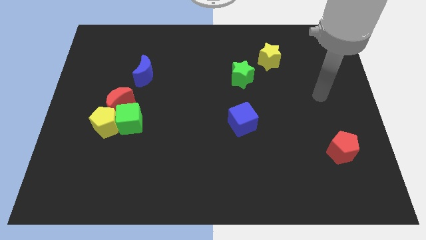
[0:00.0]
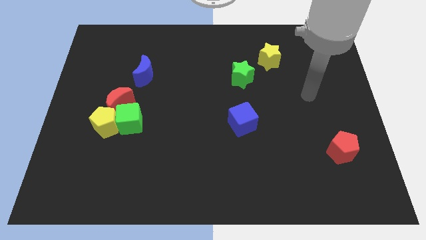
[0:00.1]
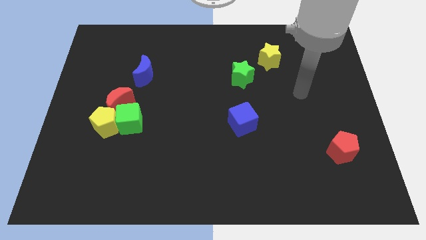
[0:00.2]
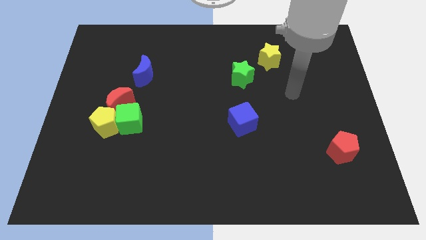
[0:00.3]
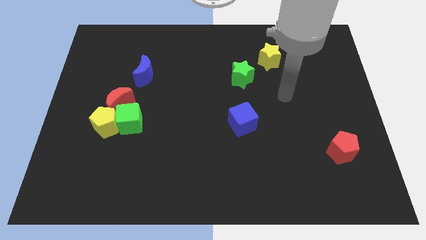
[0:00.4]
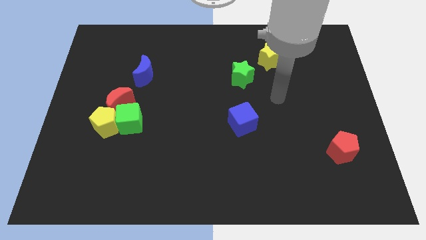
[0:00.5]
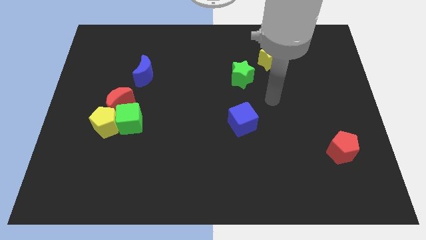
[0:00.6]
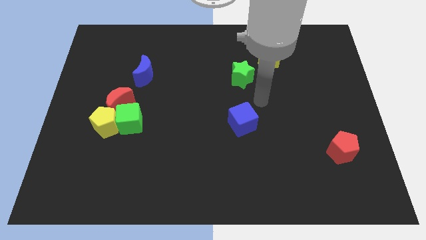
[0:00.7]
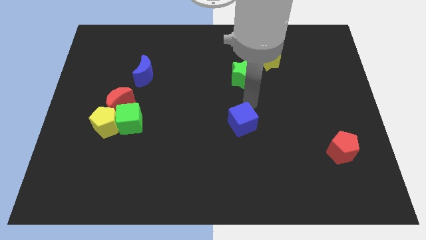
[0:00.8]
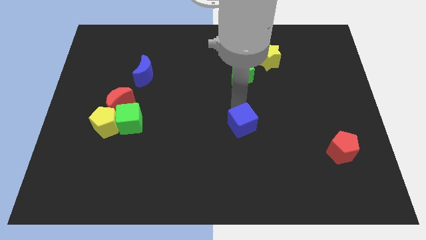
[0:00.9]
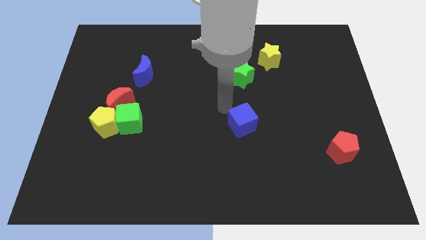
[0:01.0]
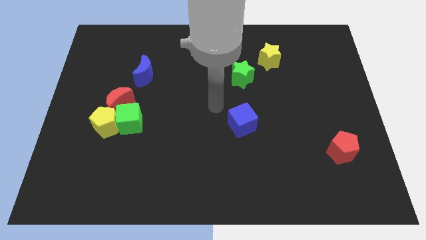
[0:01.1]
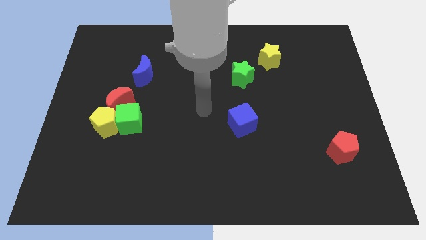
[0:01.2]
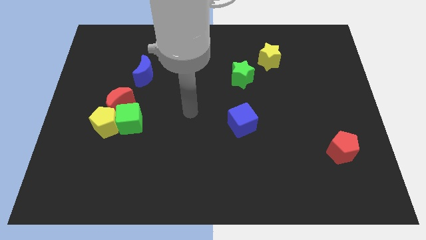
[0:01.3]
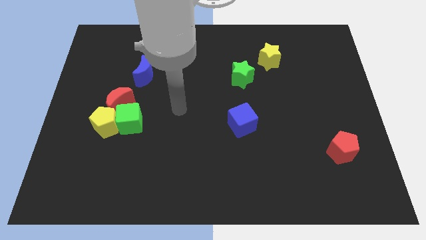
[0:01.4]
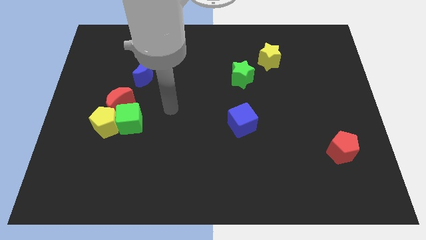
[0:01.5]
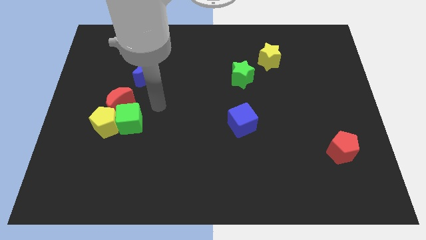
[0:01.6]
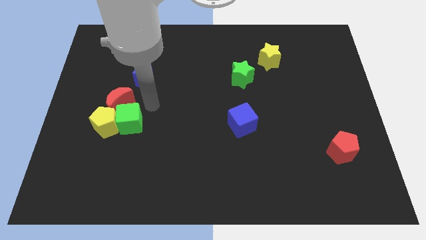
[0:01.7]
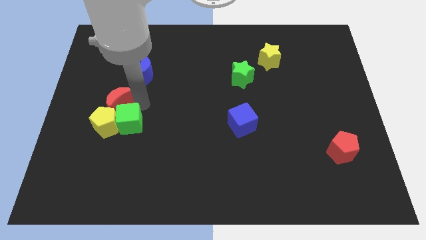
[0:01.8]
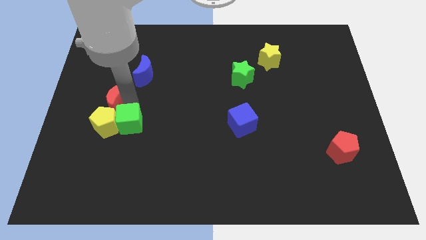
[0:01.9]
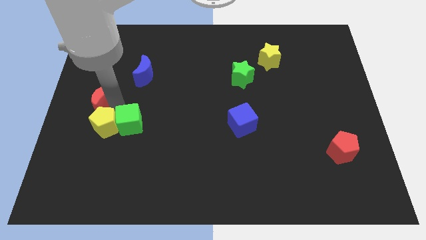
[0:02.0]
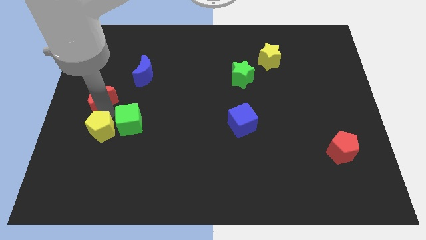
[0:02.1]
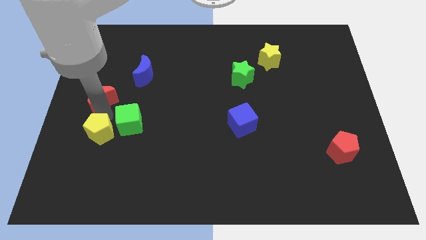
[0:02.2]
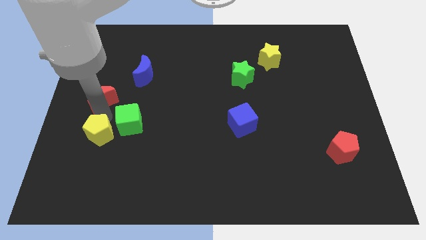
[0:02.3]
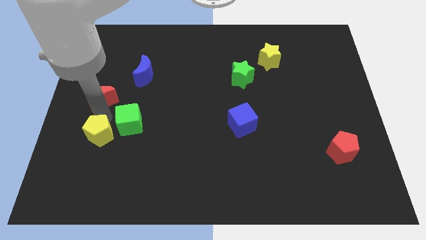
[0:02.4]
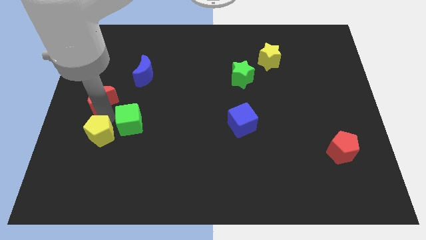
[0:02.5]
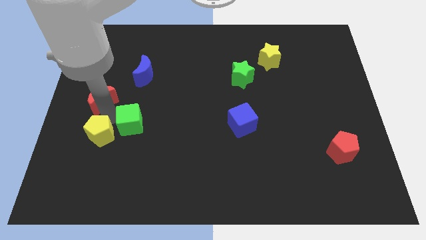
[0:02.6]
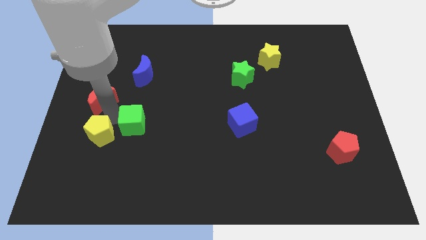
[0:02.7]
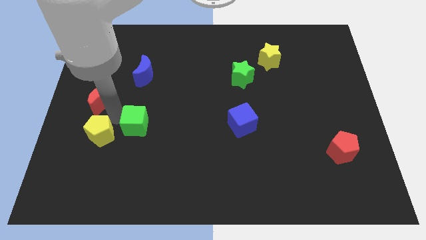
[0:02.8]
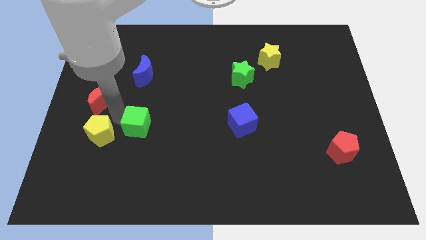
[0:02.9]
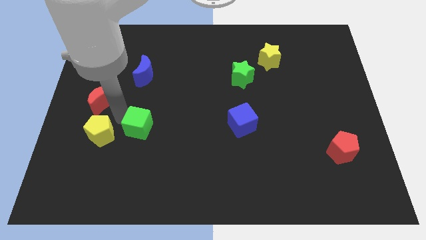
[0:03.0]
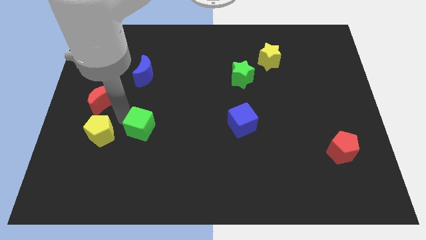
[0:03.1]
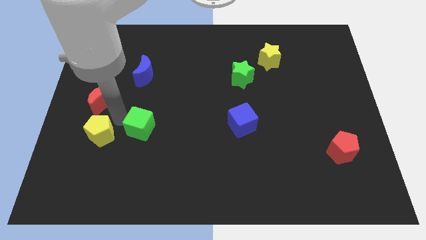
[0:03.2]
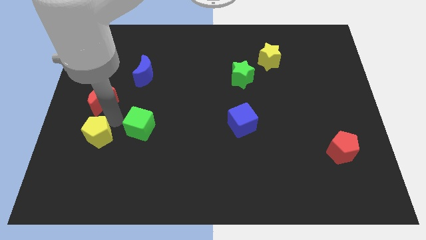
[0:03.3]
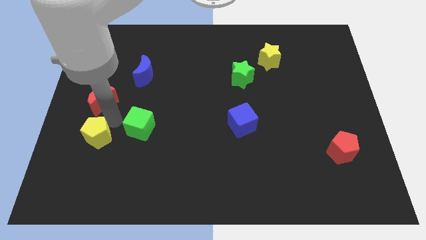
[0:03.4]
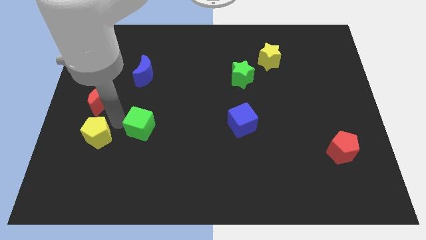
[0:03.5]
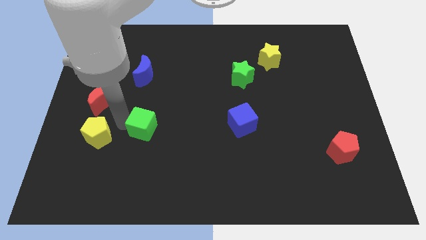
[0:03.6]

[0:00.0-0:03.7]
pull the green cube apart from the yellow pentagon and red moon

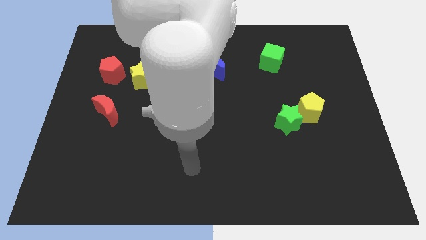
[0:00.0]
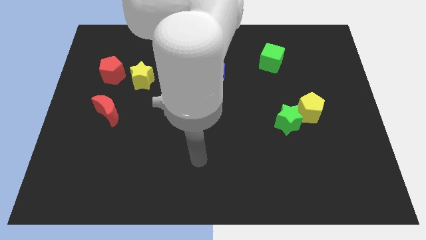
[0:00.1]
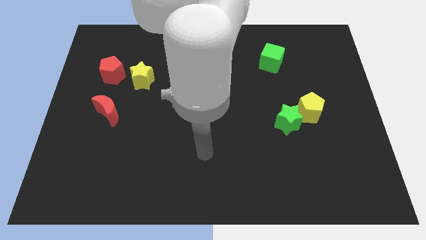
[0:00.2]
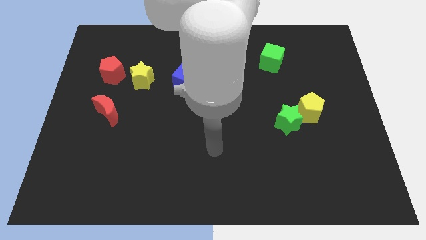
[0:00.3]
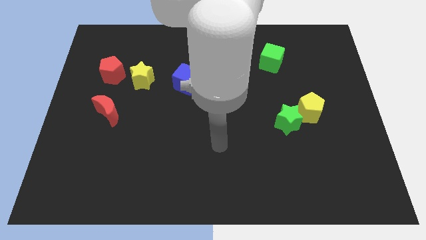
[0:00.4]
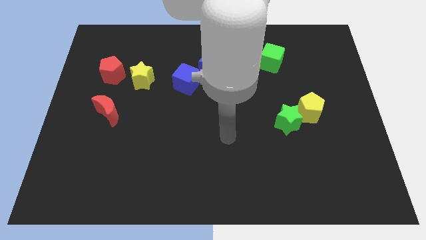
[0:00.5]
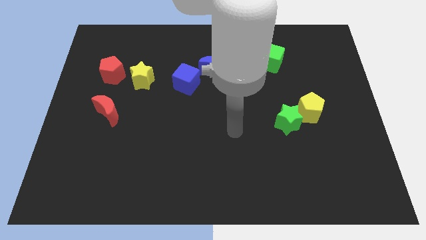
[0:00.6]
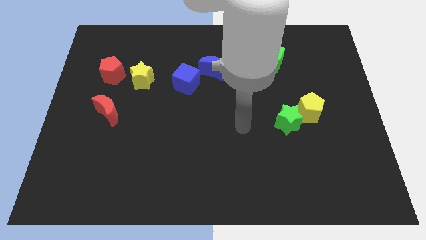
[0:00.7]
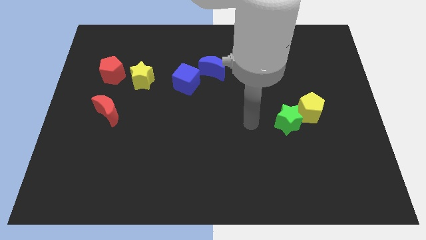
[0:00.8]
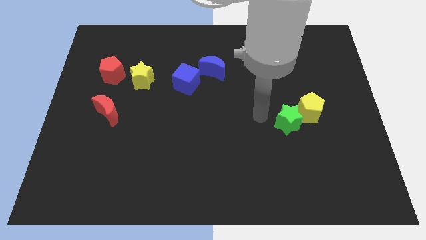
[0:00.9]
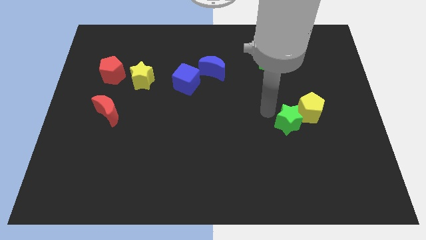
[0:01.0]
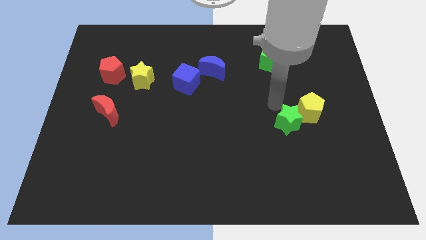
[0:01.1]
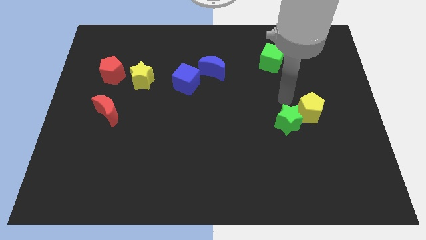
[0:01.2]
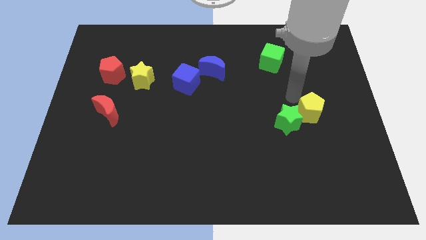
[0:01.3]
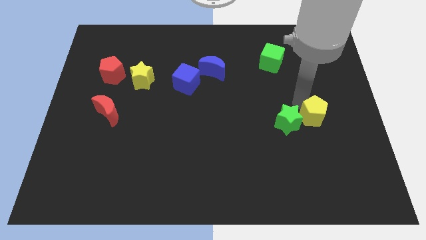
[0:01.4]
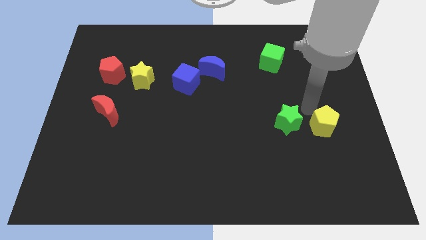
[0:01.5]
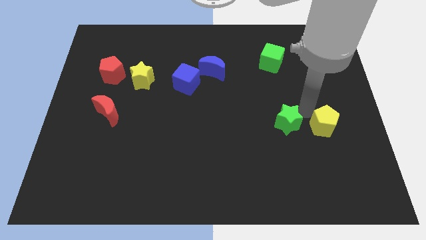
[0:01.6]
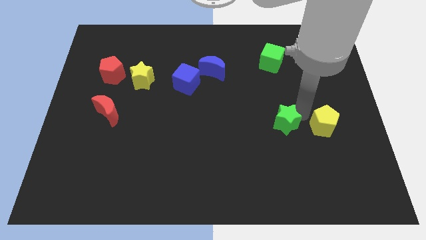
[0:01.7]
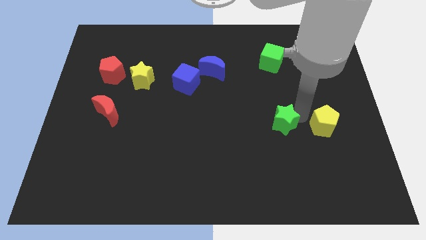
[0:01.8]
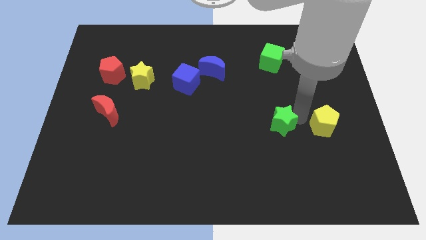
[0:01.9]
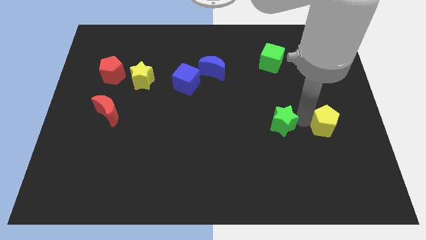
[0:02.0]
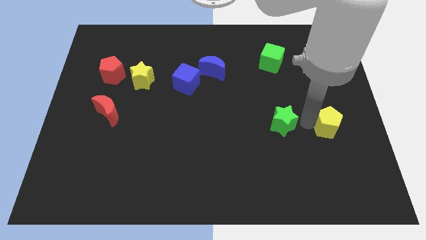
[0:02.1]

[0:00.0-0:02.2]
separate the green star from the yellow pentagon

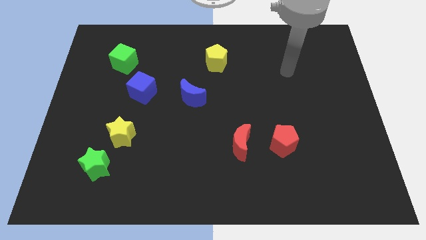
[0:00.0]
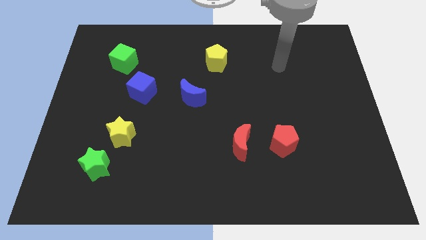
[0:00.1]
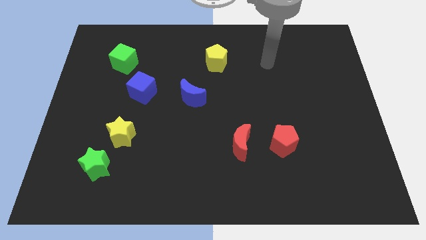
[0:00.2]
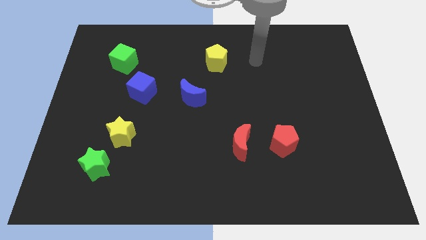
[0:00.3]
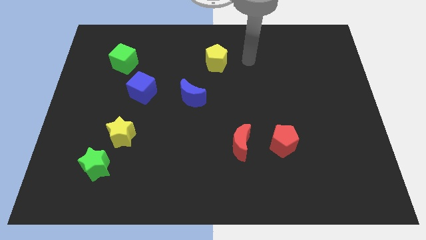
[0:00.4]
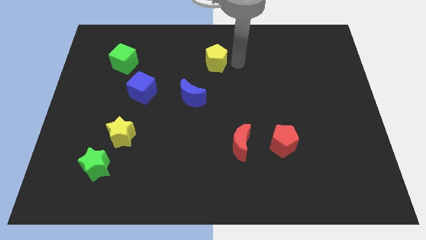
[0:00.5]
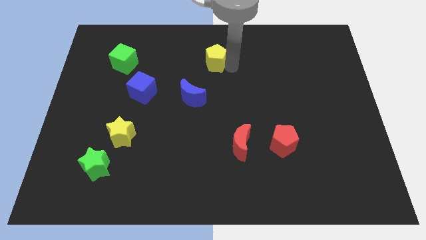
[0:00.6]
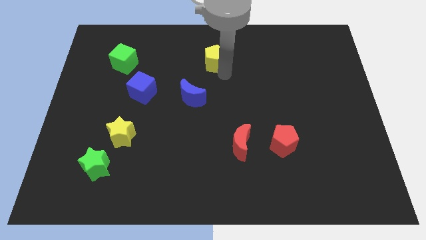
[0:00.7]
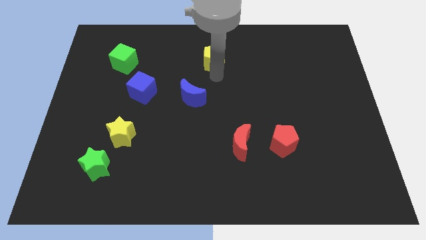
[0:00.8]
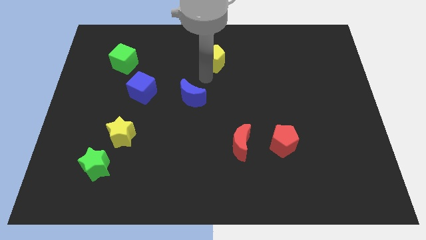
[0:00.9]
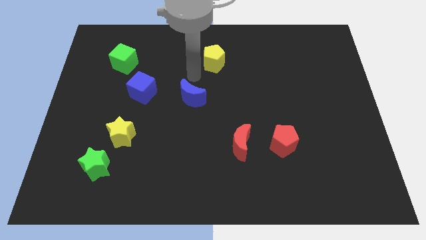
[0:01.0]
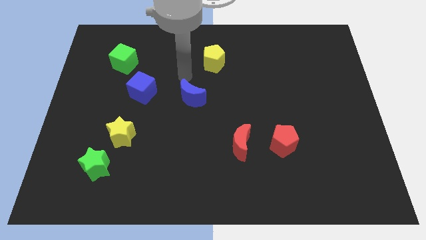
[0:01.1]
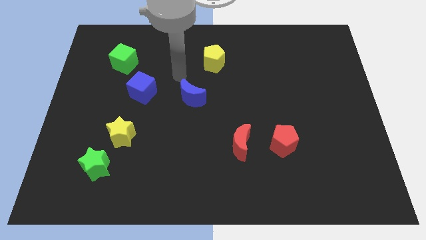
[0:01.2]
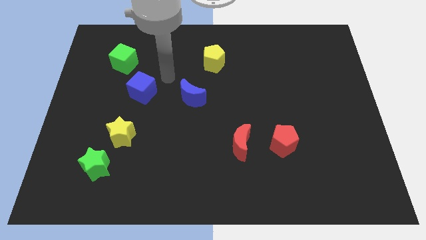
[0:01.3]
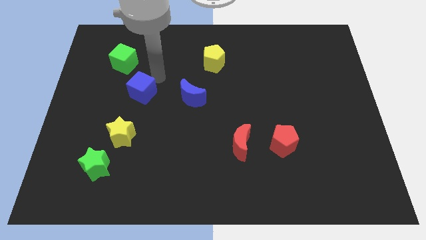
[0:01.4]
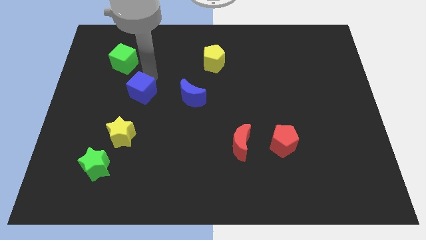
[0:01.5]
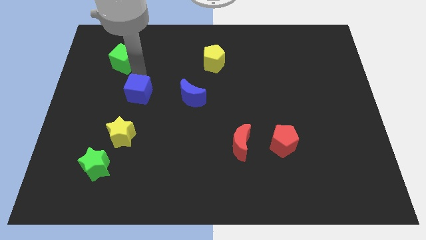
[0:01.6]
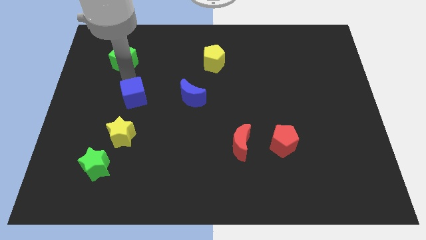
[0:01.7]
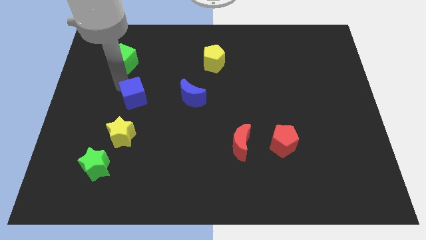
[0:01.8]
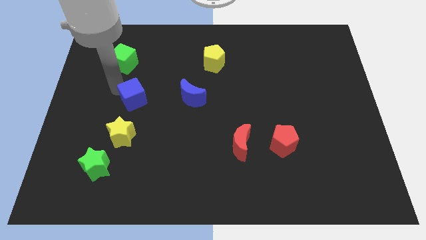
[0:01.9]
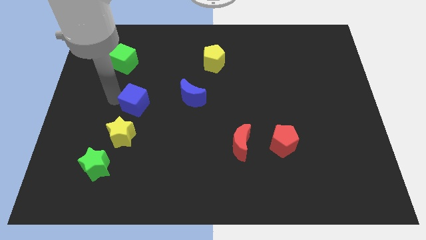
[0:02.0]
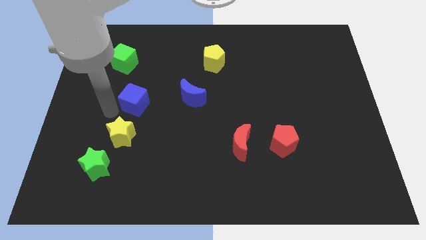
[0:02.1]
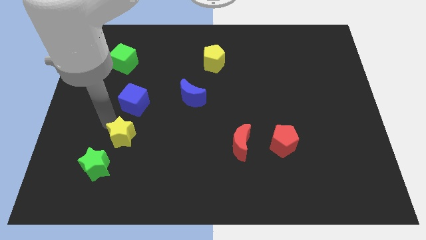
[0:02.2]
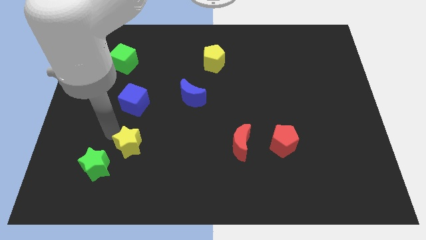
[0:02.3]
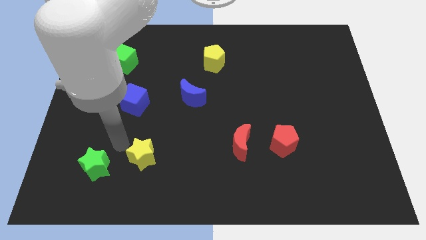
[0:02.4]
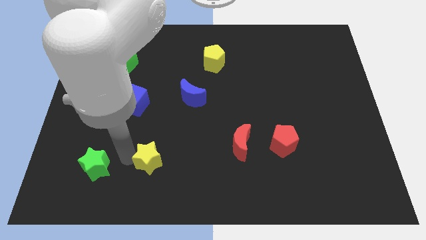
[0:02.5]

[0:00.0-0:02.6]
separate the green star from the yellow star

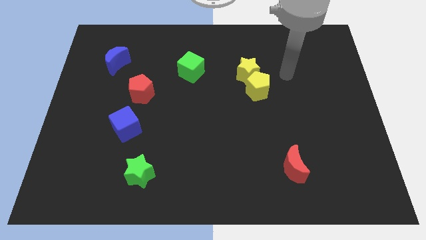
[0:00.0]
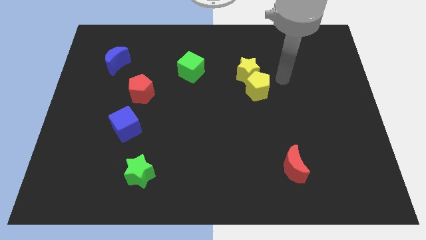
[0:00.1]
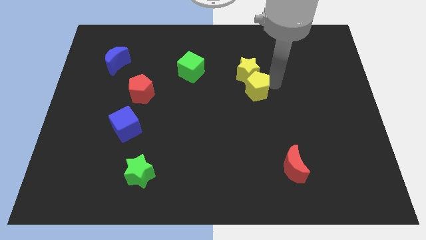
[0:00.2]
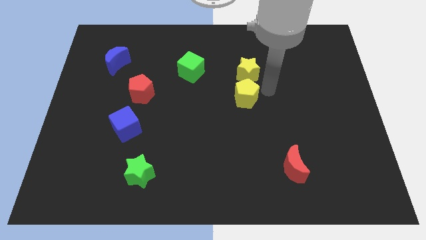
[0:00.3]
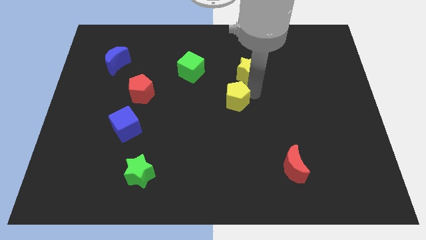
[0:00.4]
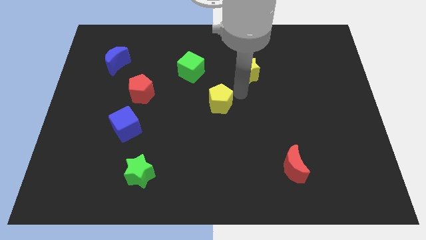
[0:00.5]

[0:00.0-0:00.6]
separate the yellow star from the yellow pentagon

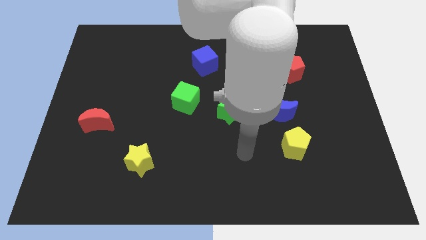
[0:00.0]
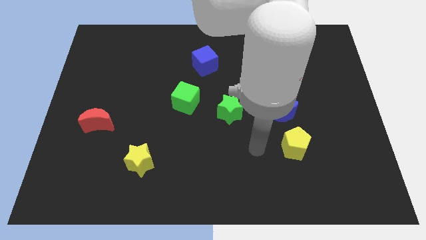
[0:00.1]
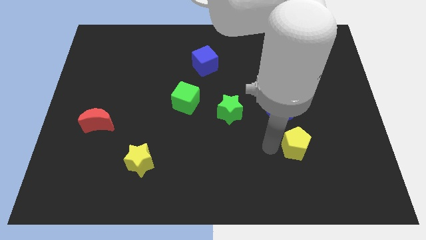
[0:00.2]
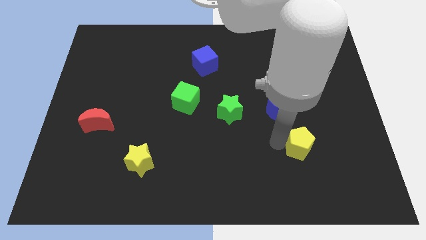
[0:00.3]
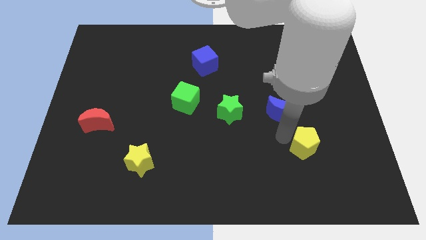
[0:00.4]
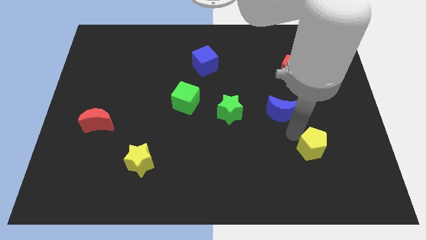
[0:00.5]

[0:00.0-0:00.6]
move the blue moon away from the yellow pentagon
